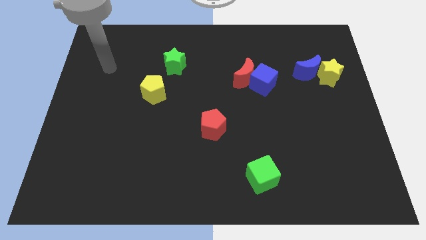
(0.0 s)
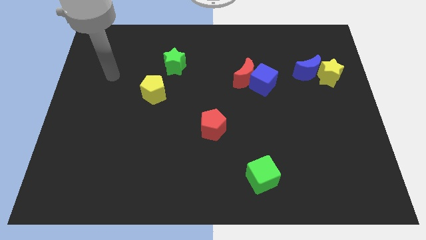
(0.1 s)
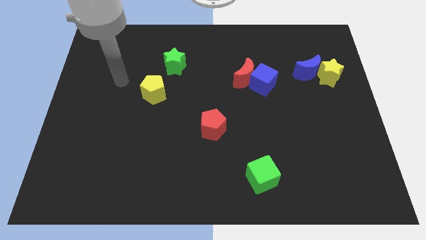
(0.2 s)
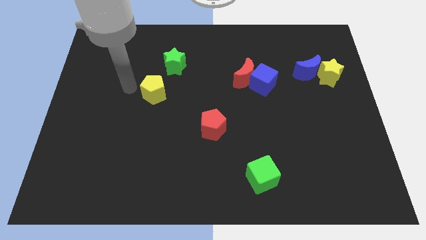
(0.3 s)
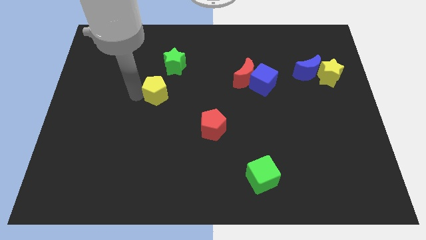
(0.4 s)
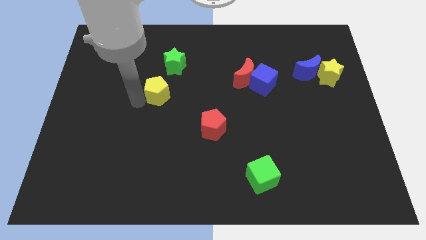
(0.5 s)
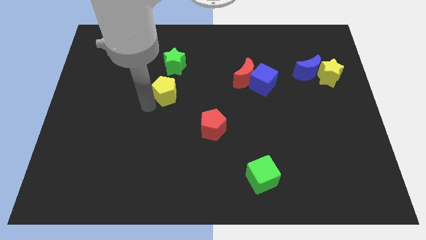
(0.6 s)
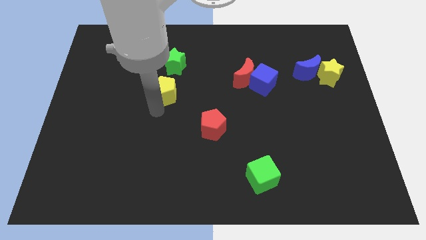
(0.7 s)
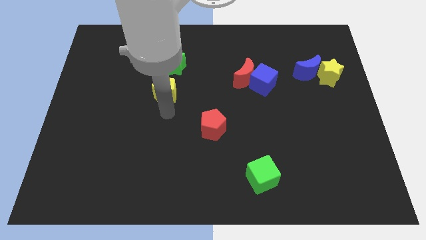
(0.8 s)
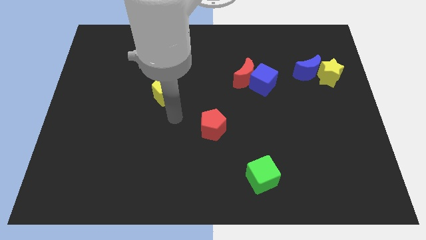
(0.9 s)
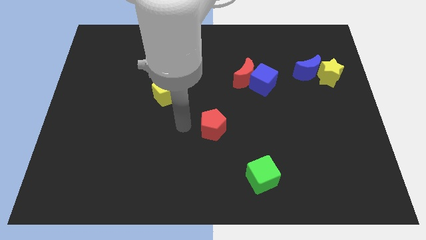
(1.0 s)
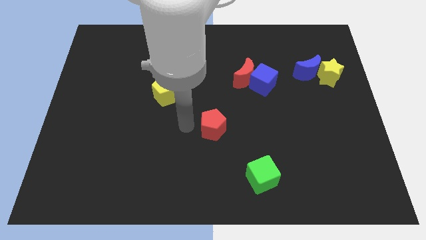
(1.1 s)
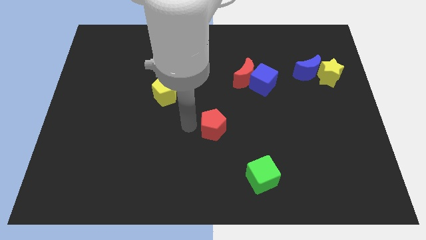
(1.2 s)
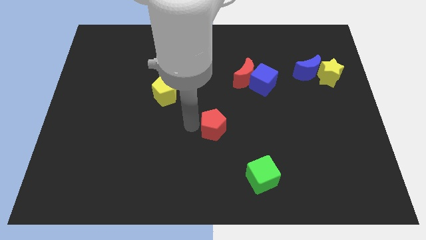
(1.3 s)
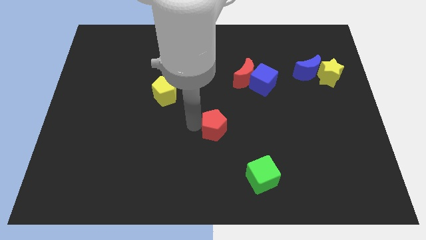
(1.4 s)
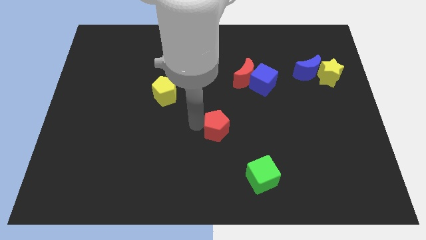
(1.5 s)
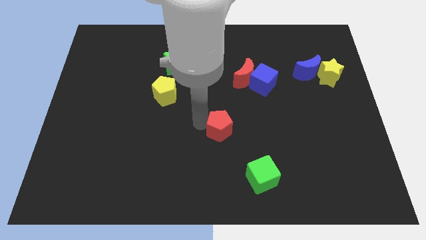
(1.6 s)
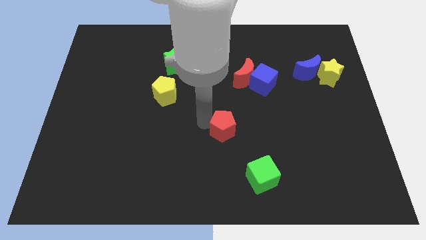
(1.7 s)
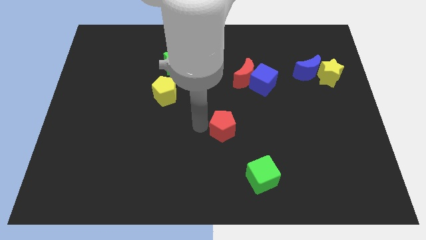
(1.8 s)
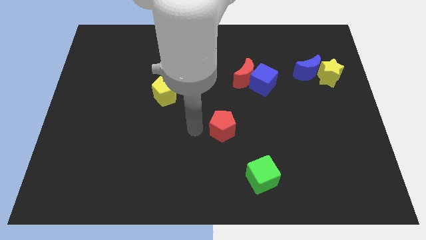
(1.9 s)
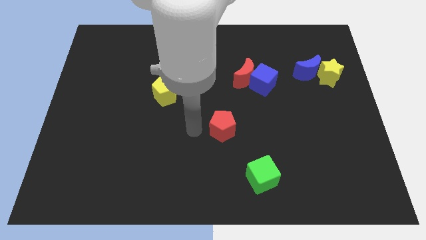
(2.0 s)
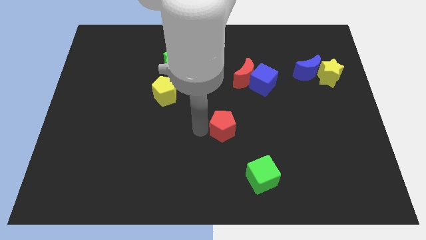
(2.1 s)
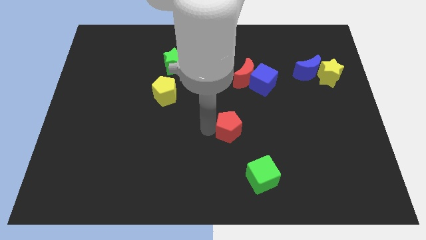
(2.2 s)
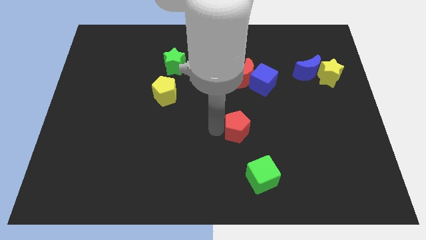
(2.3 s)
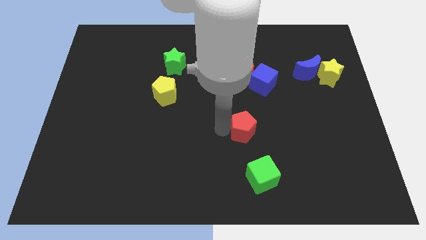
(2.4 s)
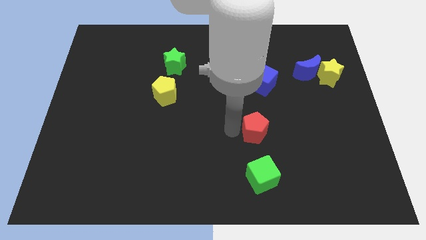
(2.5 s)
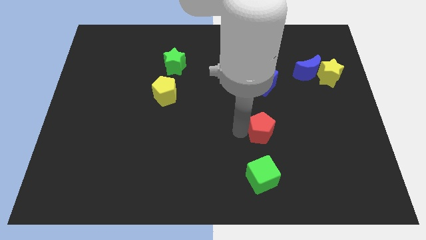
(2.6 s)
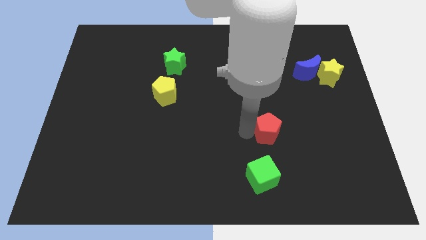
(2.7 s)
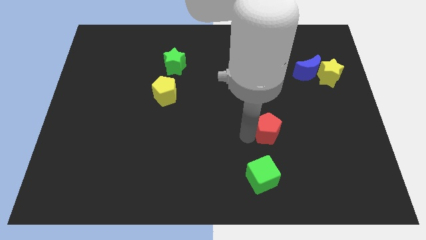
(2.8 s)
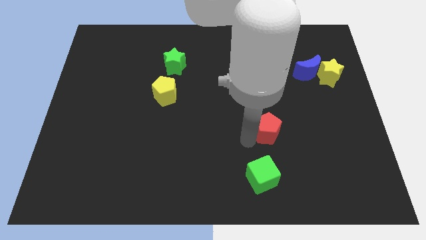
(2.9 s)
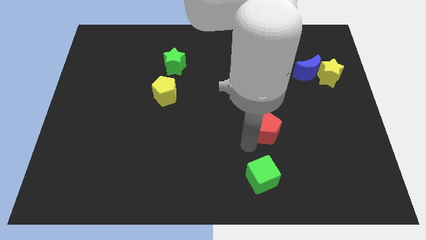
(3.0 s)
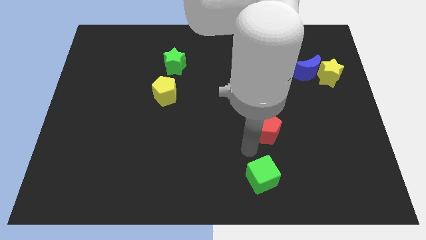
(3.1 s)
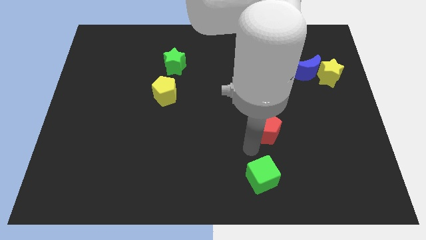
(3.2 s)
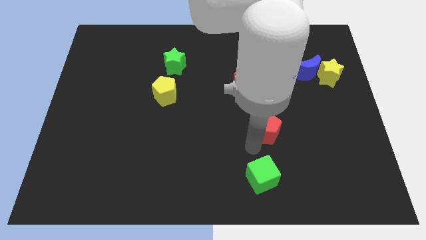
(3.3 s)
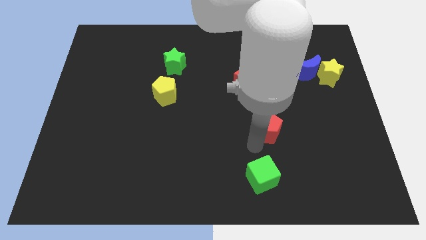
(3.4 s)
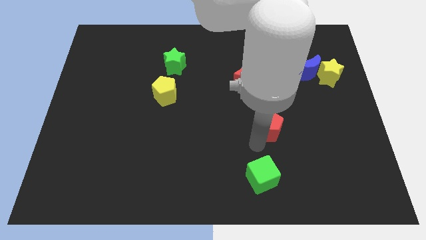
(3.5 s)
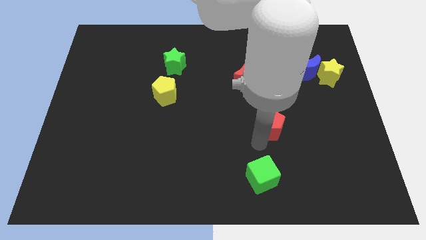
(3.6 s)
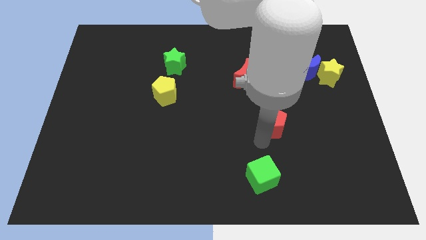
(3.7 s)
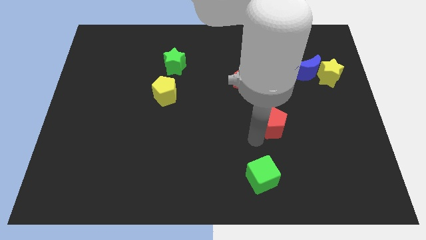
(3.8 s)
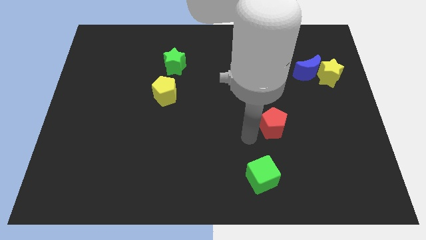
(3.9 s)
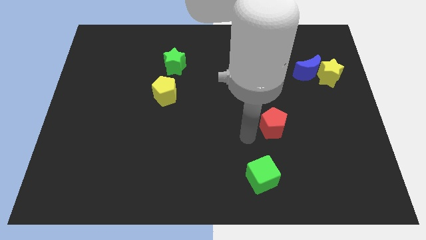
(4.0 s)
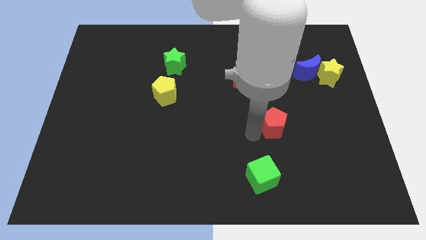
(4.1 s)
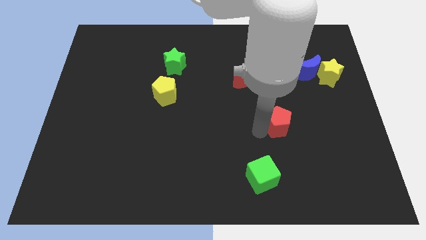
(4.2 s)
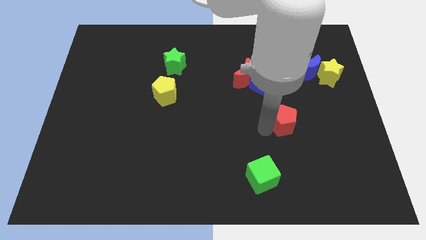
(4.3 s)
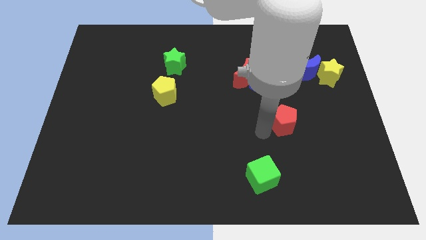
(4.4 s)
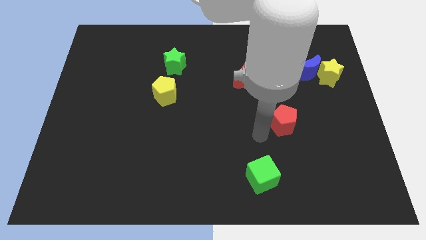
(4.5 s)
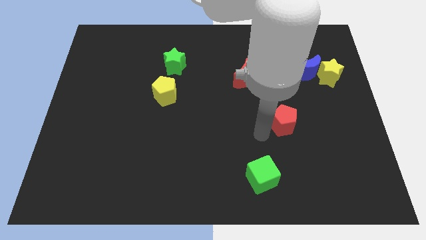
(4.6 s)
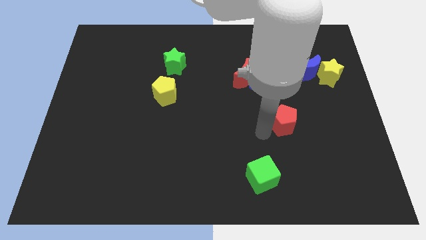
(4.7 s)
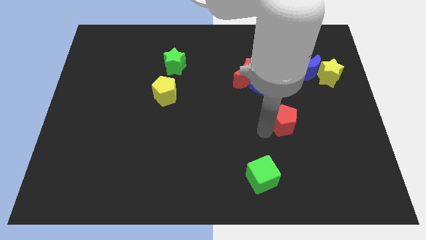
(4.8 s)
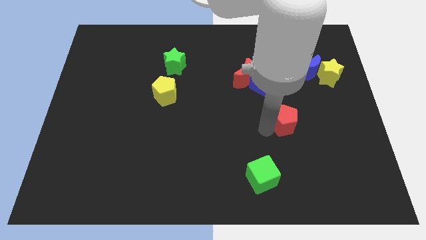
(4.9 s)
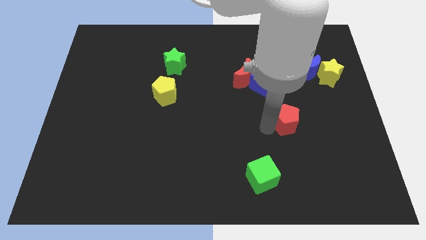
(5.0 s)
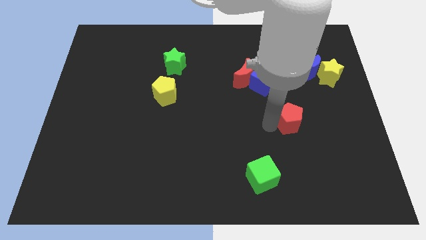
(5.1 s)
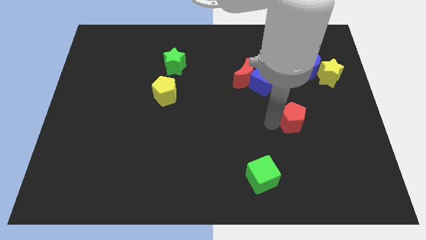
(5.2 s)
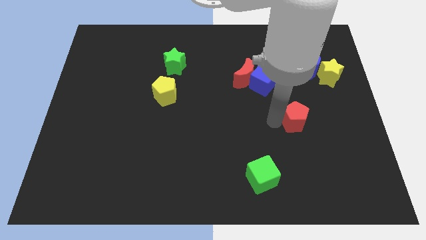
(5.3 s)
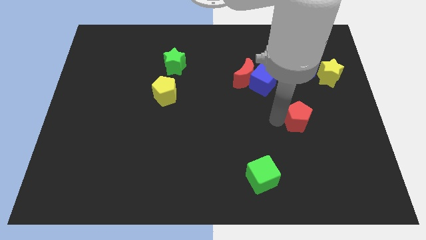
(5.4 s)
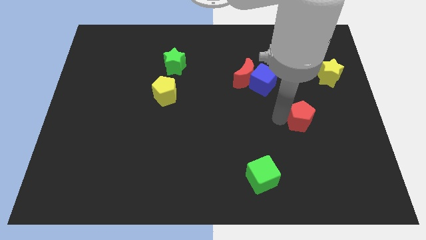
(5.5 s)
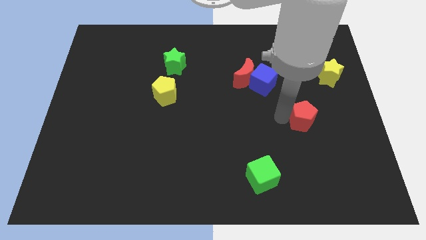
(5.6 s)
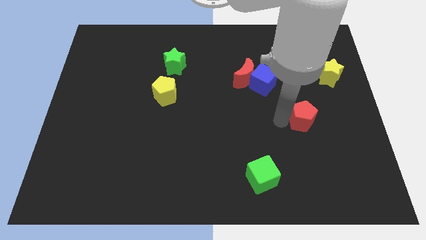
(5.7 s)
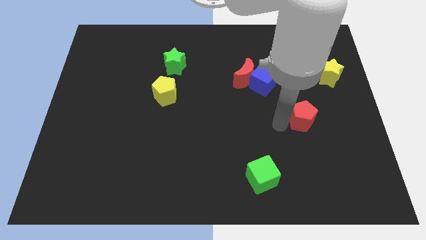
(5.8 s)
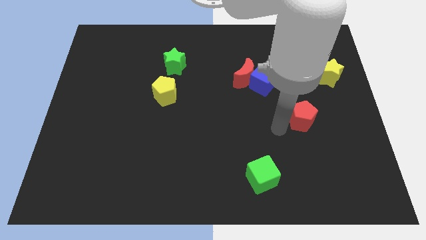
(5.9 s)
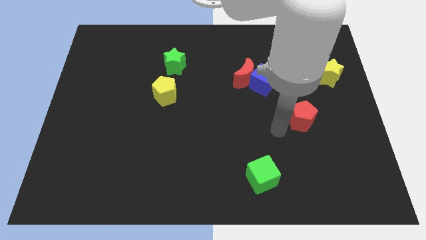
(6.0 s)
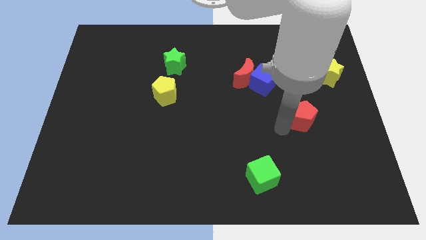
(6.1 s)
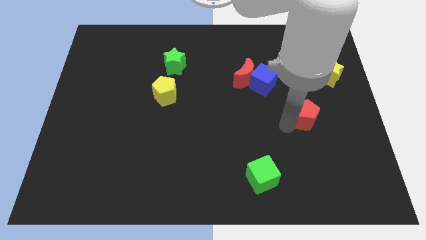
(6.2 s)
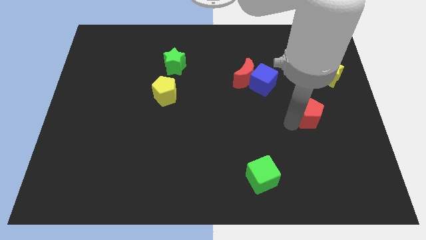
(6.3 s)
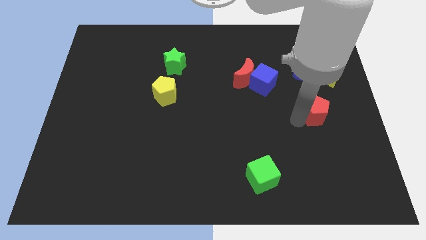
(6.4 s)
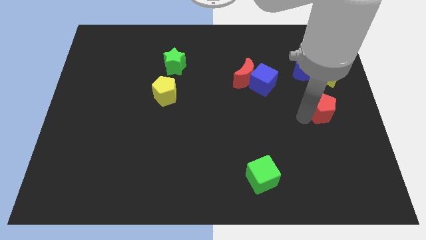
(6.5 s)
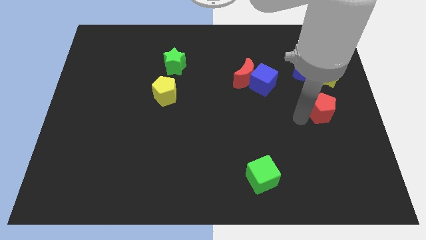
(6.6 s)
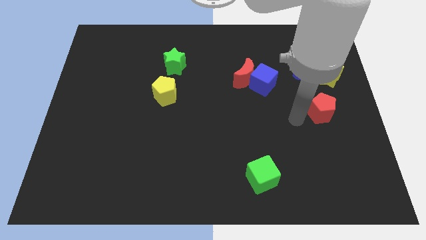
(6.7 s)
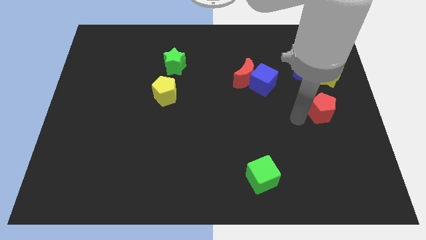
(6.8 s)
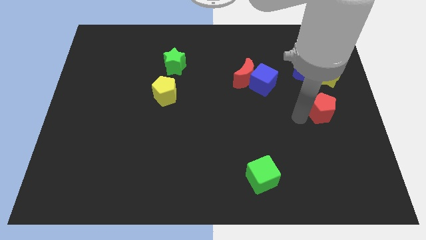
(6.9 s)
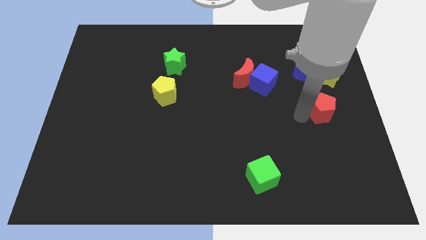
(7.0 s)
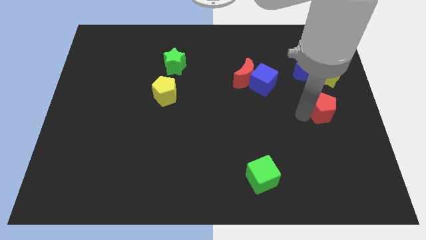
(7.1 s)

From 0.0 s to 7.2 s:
push the red pentagon to the right side
